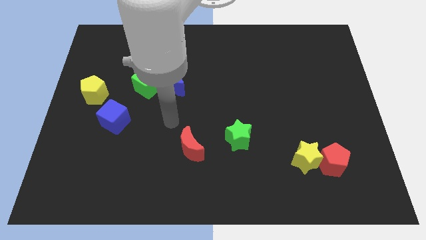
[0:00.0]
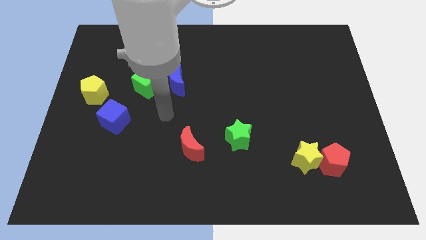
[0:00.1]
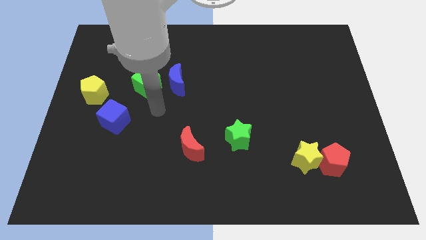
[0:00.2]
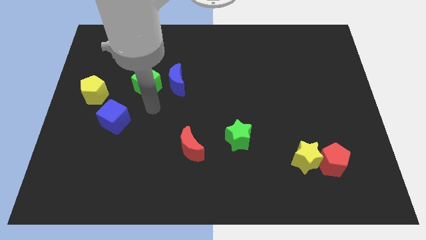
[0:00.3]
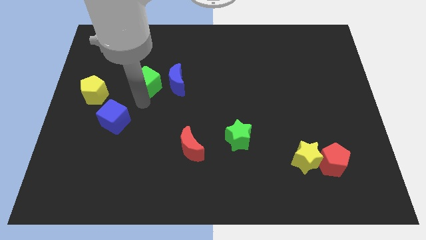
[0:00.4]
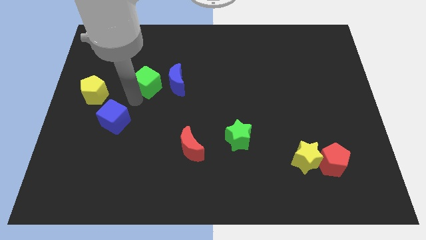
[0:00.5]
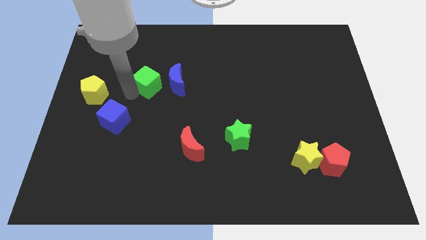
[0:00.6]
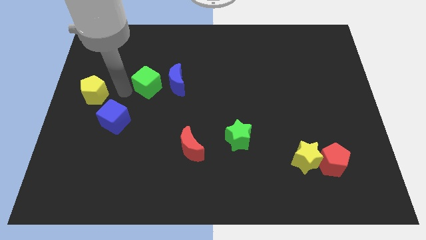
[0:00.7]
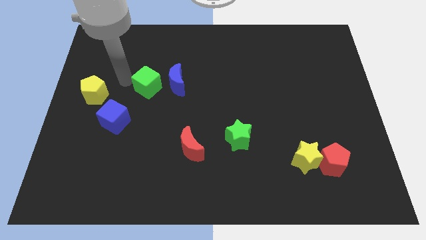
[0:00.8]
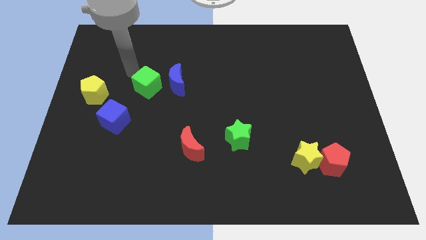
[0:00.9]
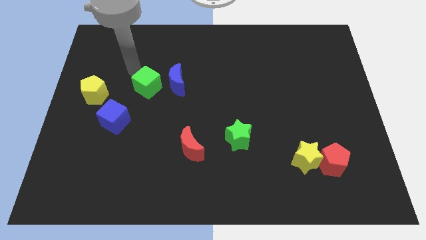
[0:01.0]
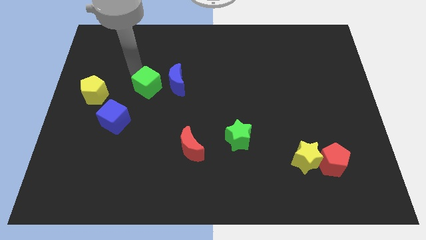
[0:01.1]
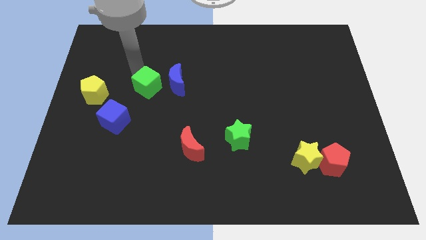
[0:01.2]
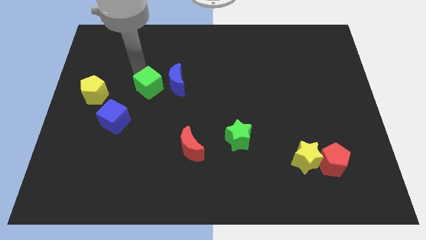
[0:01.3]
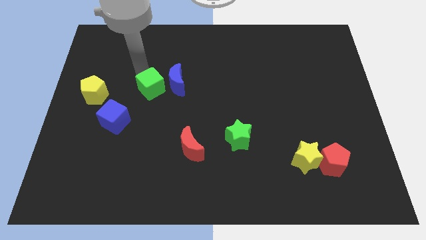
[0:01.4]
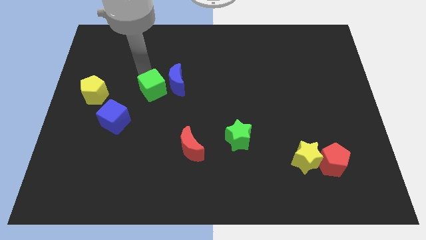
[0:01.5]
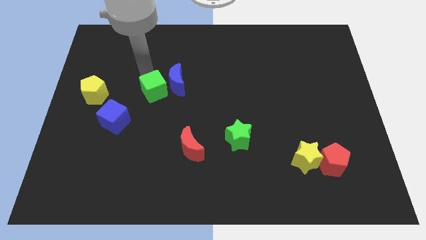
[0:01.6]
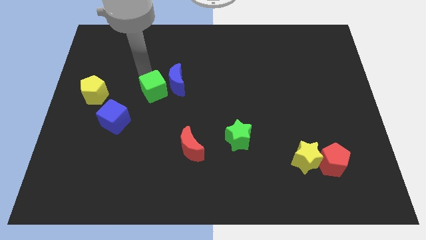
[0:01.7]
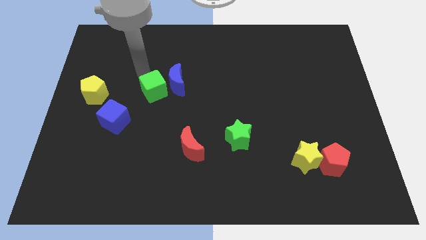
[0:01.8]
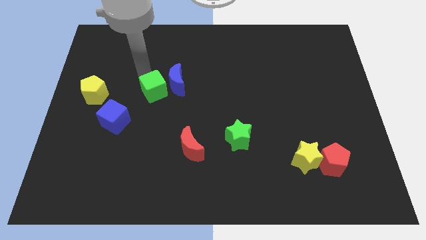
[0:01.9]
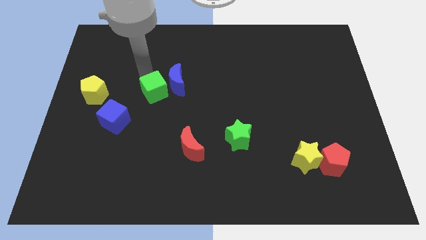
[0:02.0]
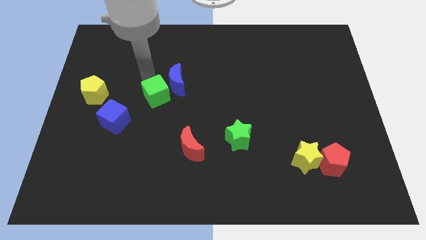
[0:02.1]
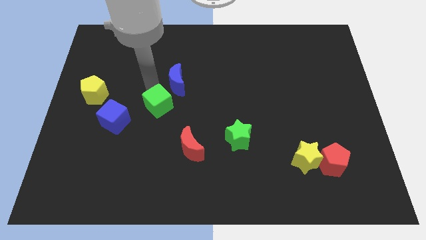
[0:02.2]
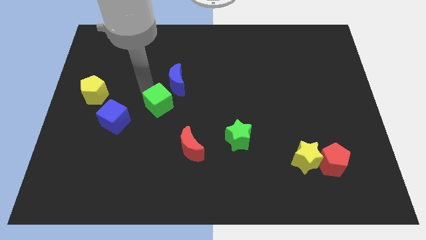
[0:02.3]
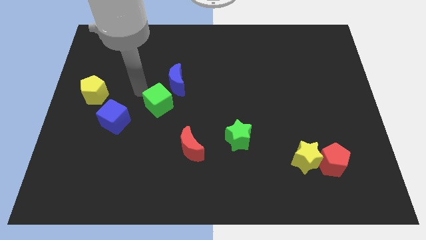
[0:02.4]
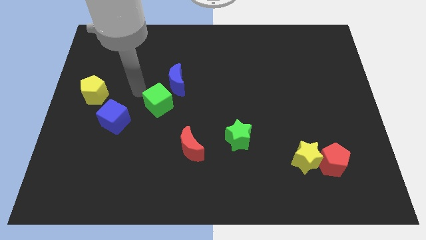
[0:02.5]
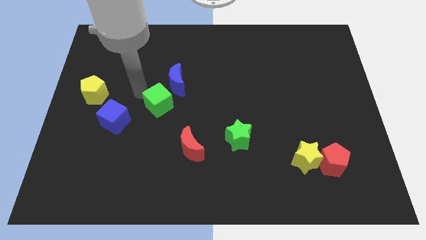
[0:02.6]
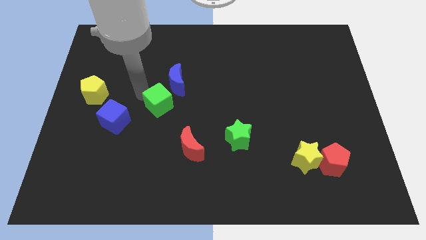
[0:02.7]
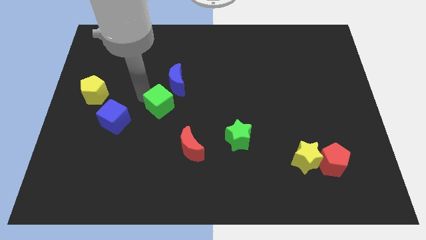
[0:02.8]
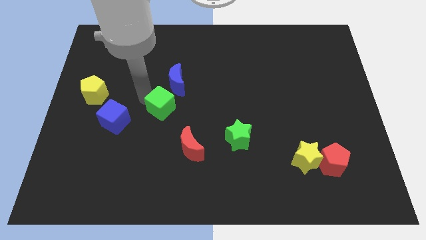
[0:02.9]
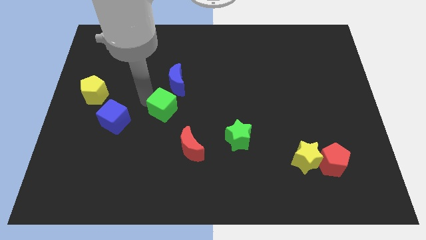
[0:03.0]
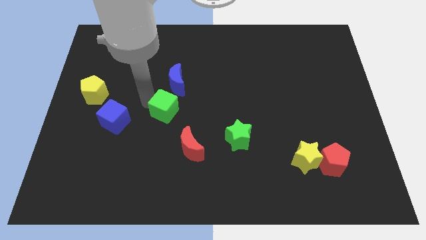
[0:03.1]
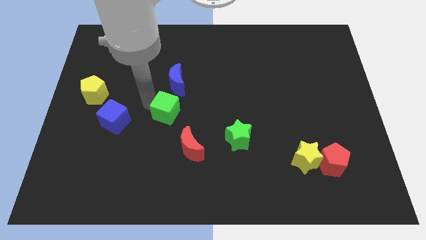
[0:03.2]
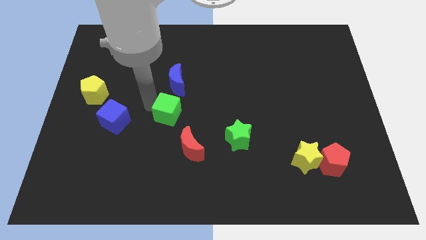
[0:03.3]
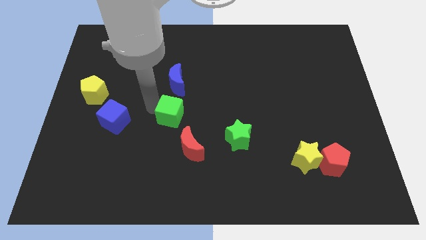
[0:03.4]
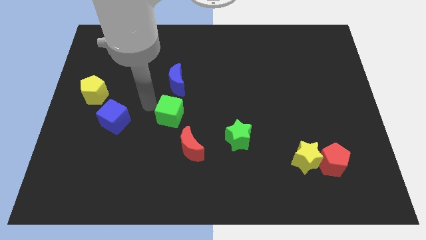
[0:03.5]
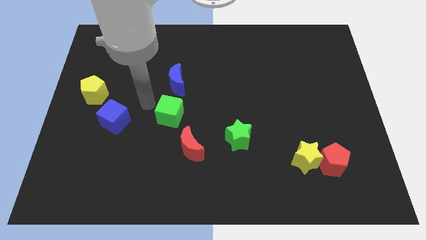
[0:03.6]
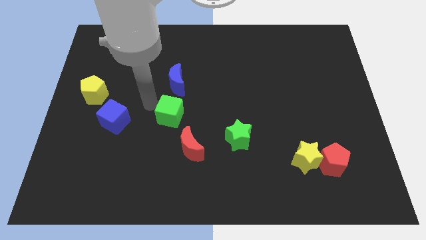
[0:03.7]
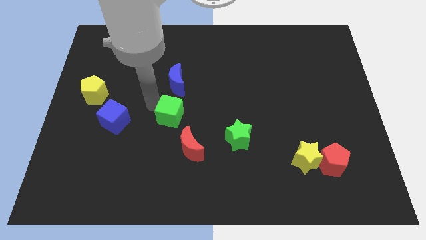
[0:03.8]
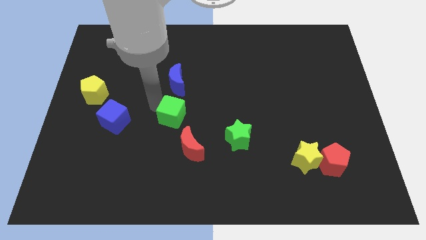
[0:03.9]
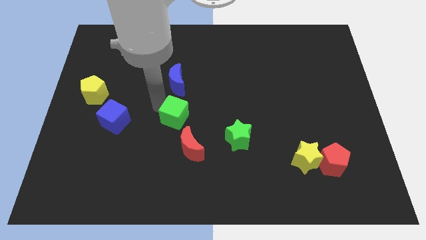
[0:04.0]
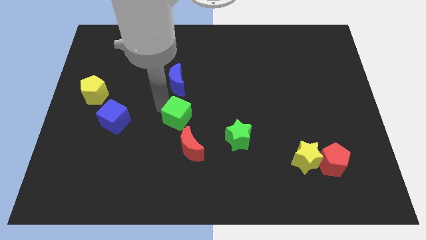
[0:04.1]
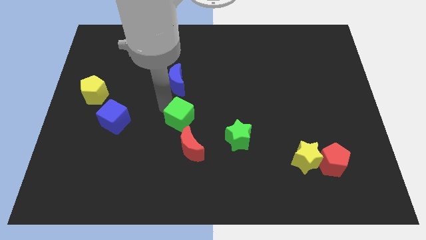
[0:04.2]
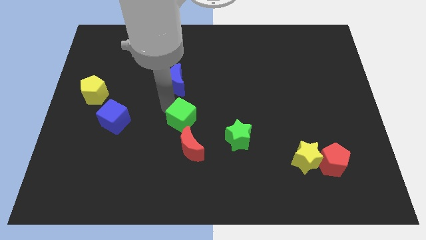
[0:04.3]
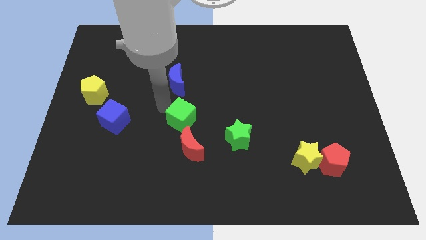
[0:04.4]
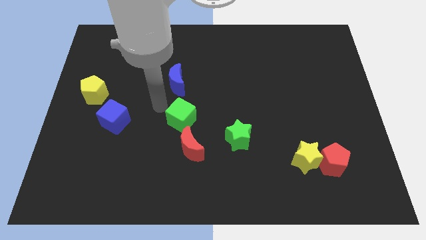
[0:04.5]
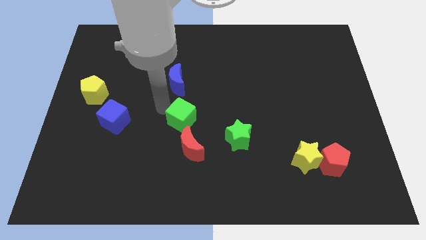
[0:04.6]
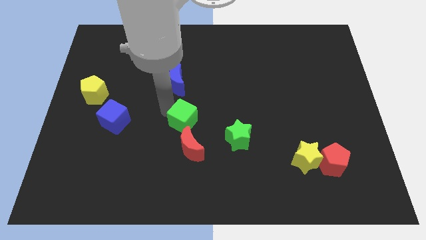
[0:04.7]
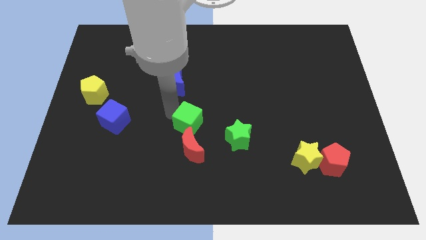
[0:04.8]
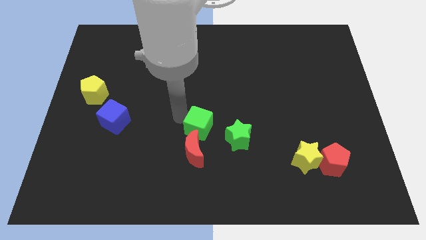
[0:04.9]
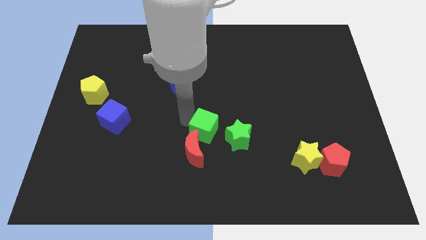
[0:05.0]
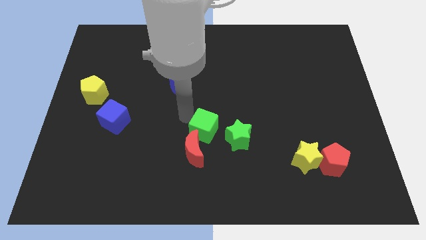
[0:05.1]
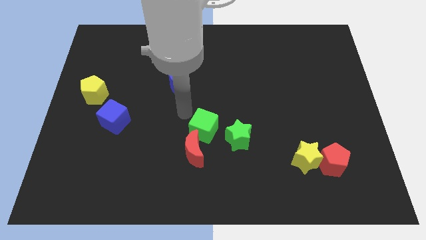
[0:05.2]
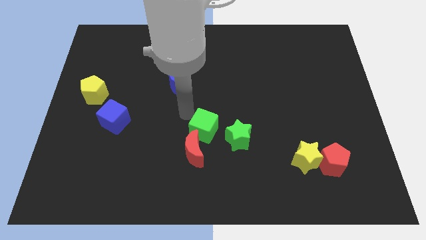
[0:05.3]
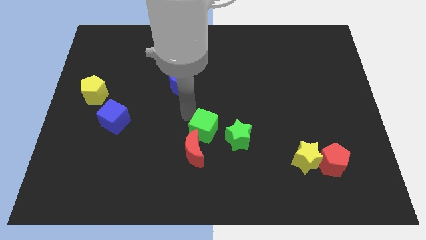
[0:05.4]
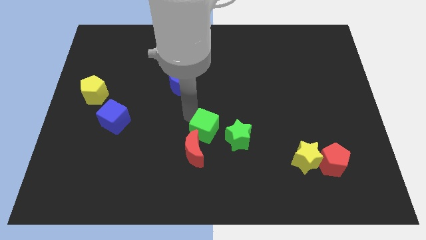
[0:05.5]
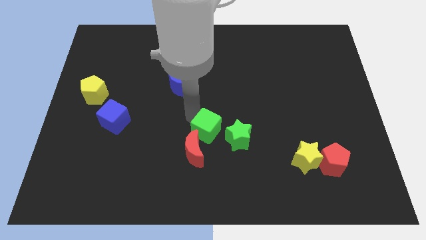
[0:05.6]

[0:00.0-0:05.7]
slide the green cube down and right

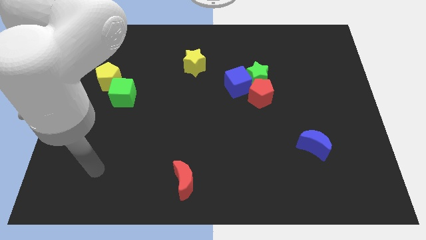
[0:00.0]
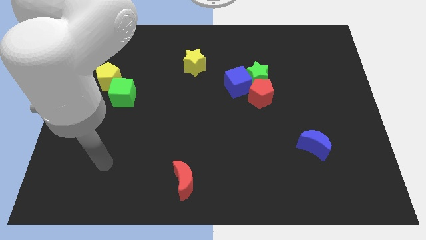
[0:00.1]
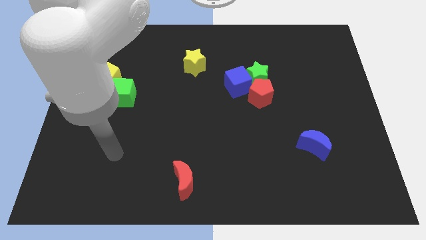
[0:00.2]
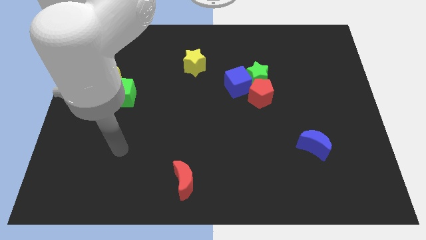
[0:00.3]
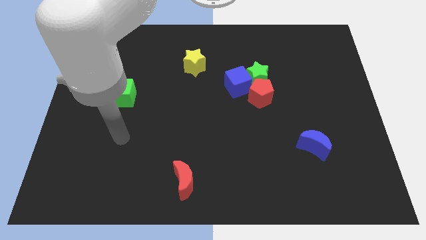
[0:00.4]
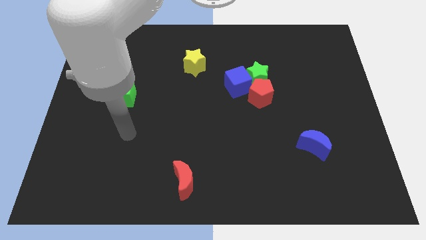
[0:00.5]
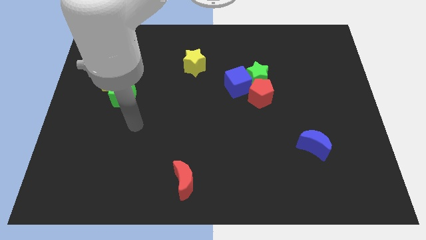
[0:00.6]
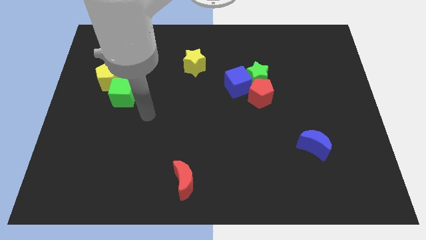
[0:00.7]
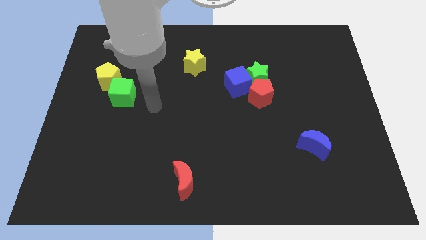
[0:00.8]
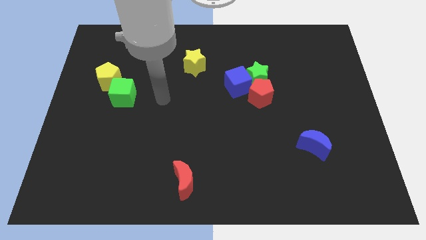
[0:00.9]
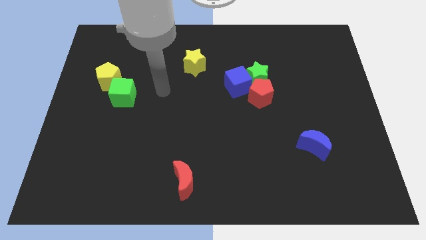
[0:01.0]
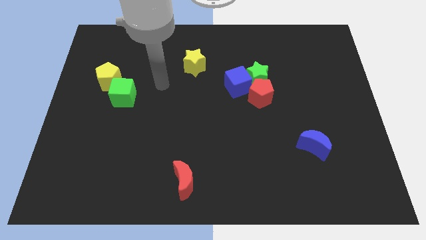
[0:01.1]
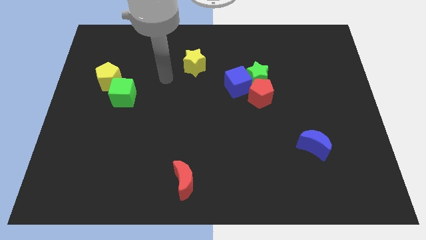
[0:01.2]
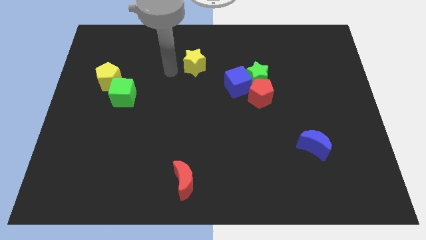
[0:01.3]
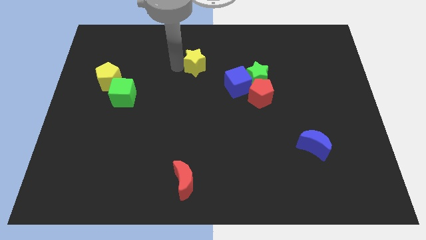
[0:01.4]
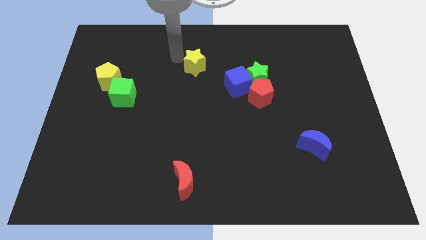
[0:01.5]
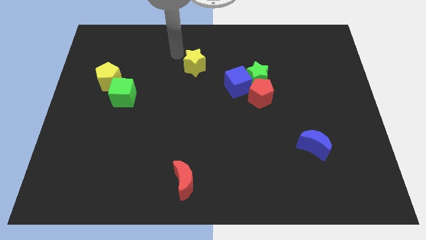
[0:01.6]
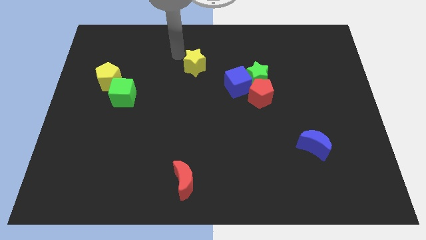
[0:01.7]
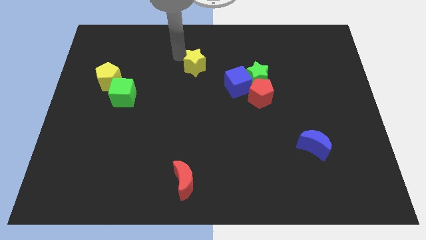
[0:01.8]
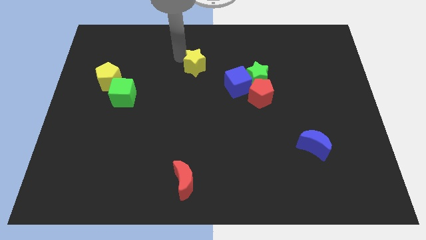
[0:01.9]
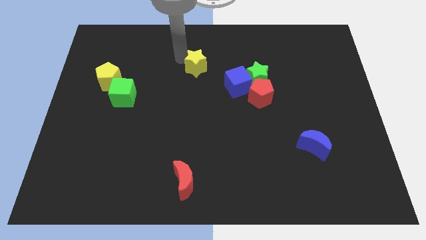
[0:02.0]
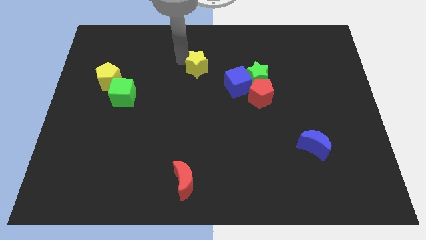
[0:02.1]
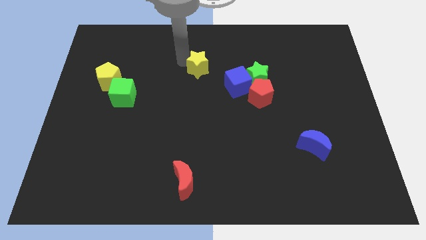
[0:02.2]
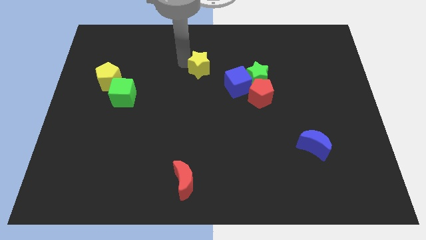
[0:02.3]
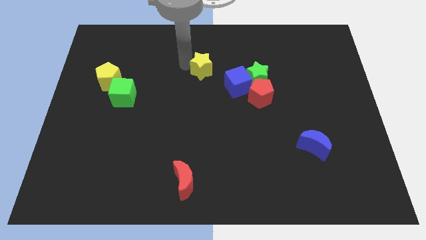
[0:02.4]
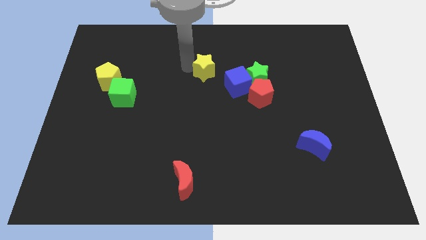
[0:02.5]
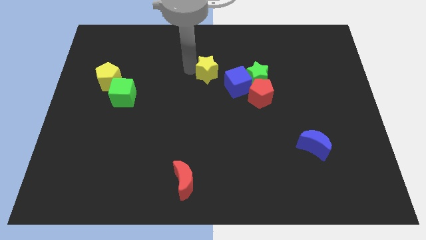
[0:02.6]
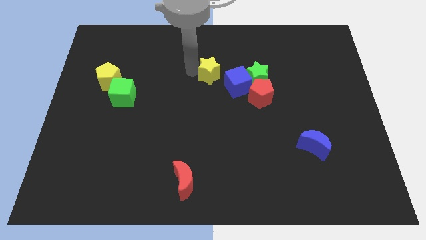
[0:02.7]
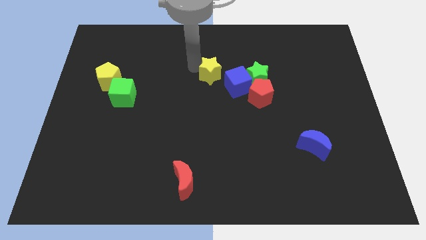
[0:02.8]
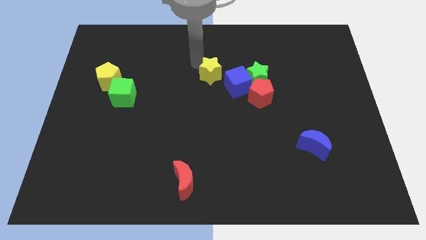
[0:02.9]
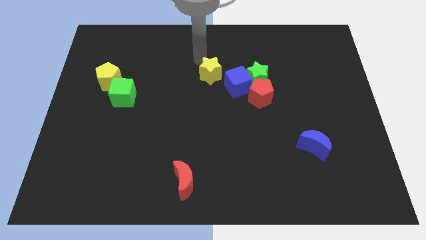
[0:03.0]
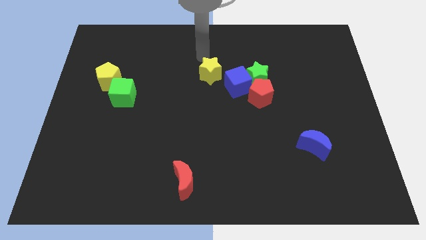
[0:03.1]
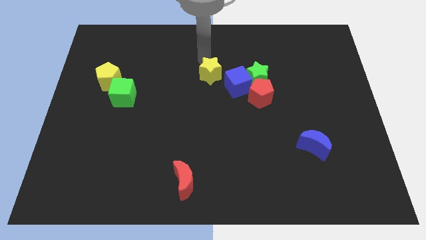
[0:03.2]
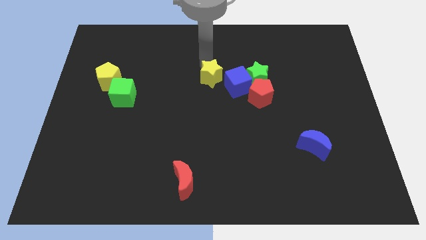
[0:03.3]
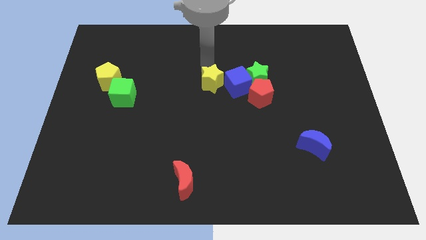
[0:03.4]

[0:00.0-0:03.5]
slide the yellow star a little down and to the right diagonally
